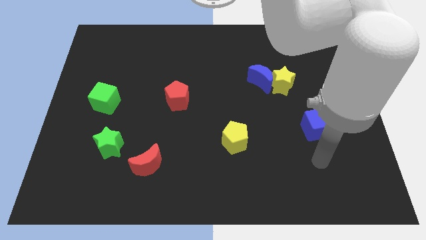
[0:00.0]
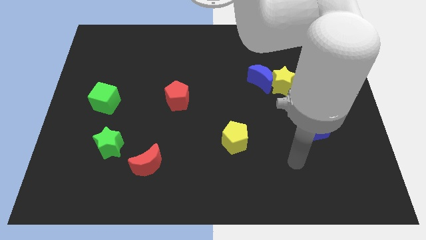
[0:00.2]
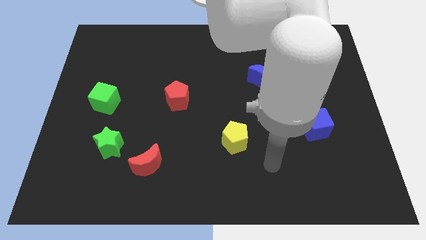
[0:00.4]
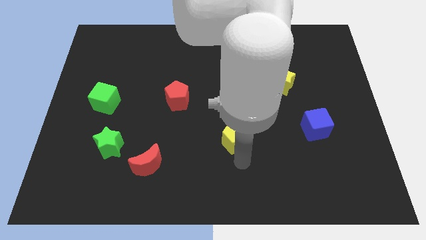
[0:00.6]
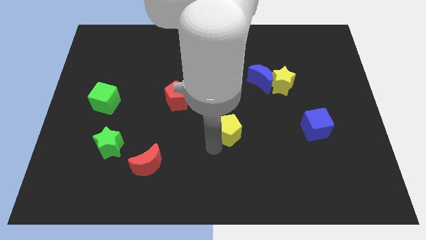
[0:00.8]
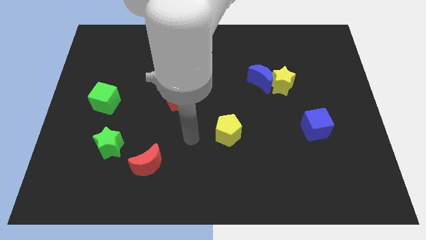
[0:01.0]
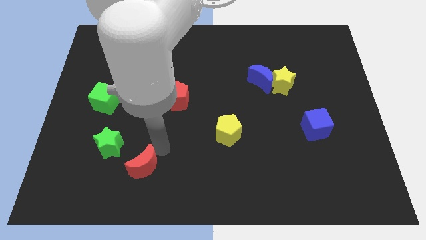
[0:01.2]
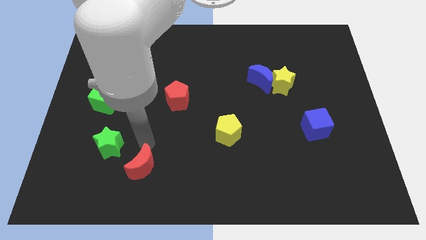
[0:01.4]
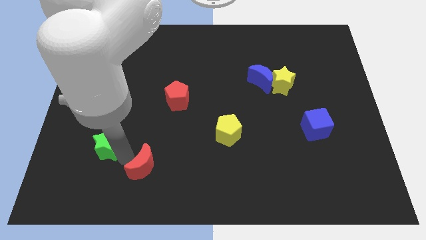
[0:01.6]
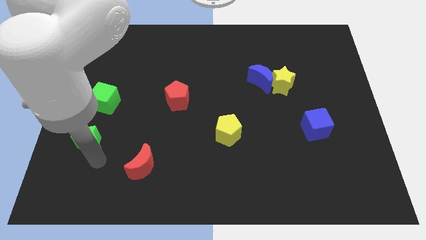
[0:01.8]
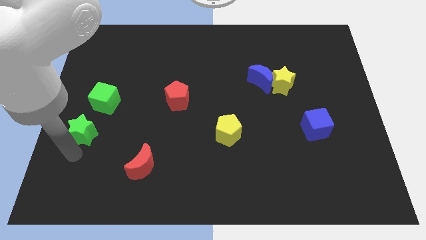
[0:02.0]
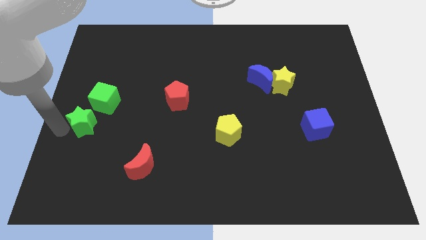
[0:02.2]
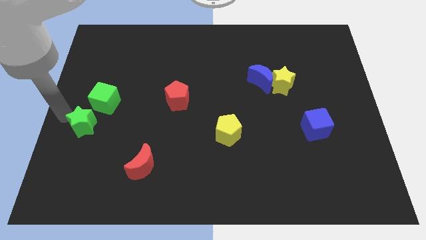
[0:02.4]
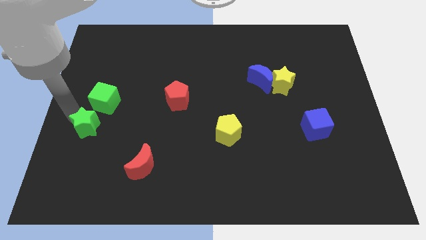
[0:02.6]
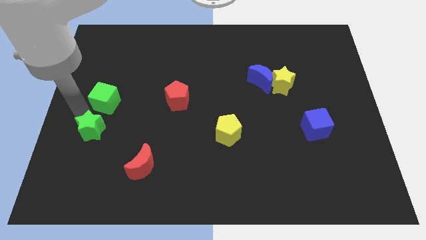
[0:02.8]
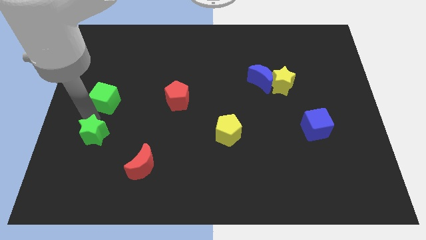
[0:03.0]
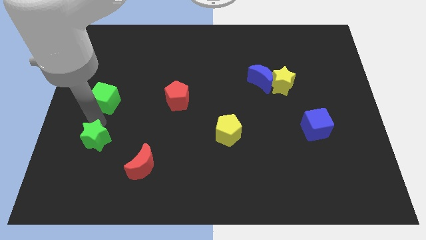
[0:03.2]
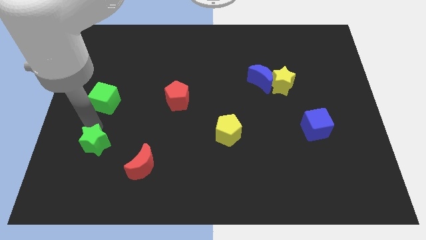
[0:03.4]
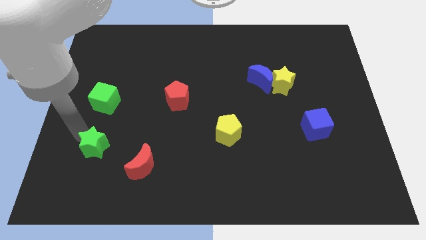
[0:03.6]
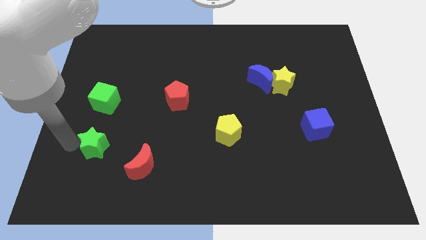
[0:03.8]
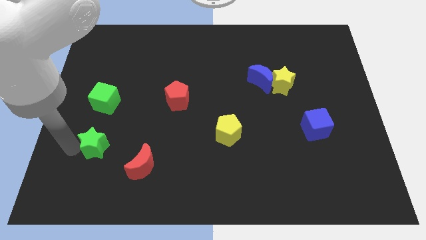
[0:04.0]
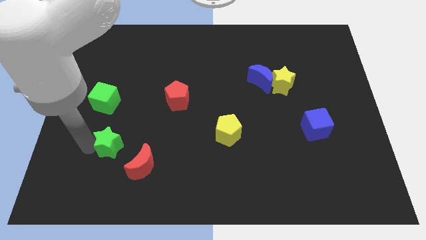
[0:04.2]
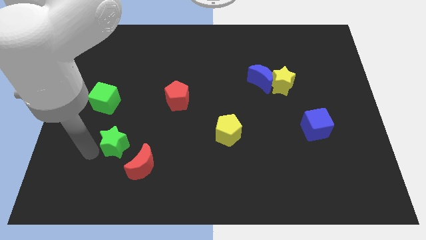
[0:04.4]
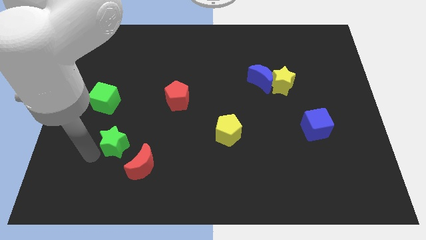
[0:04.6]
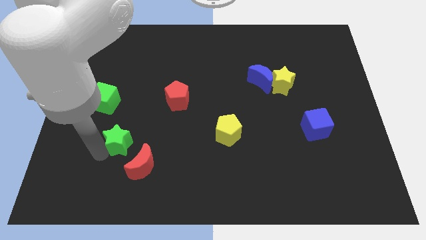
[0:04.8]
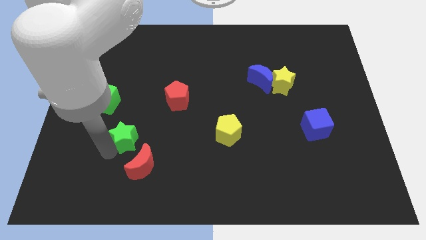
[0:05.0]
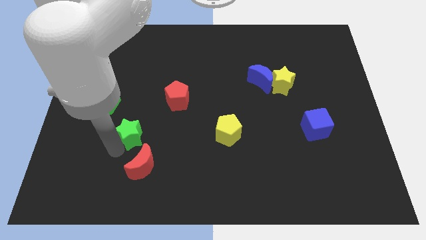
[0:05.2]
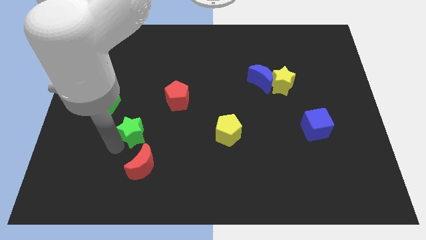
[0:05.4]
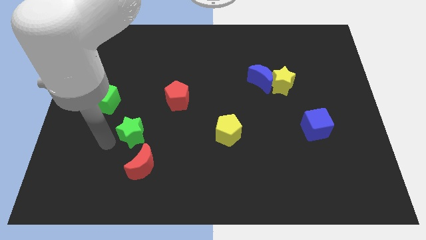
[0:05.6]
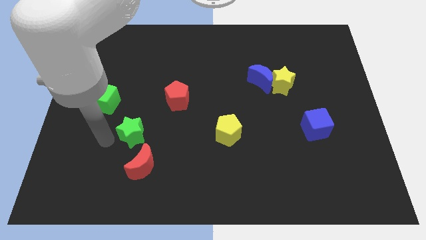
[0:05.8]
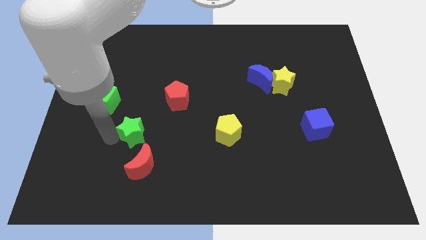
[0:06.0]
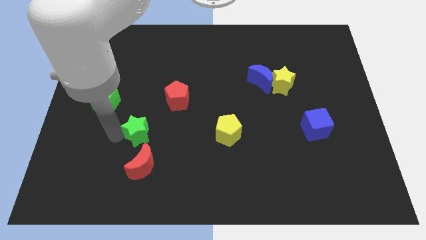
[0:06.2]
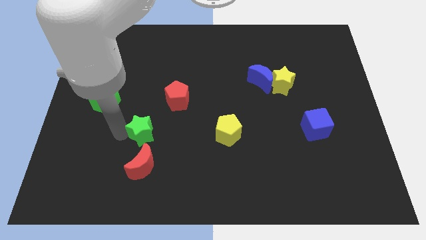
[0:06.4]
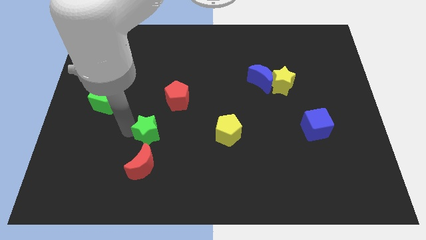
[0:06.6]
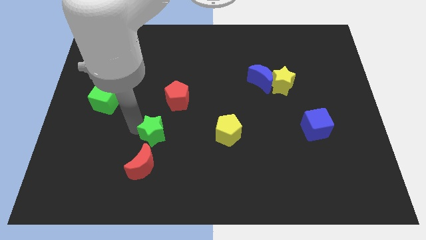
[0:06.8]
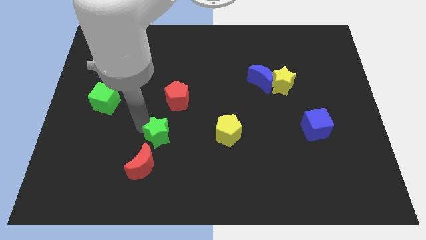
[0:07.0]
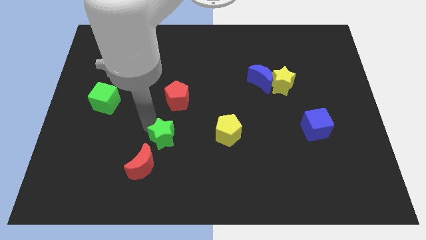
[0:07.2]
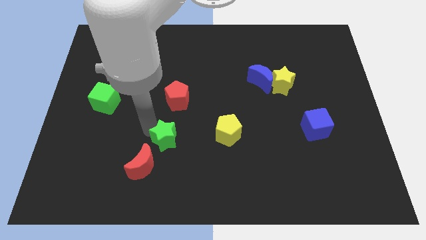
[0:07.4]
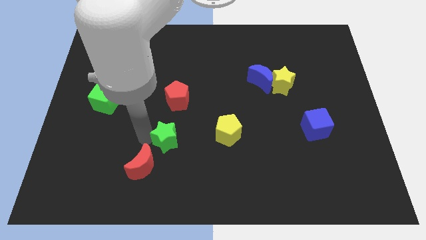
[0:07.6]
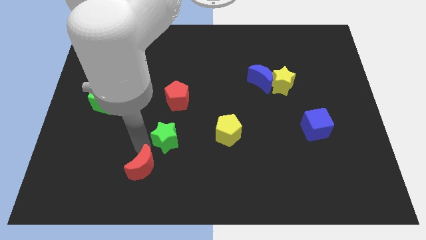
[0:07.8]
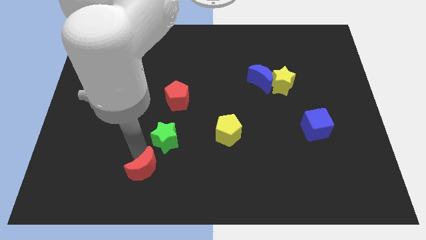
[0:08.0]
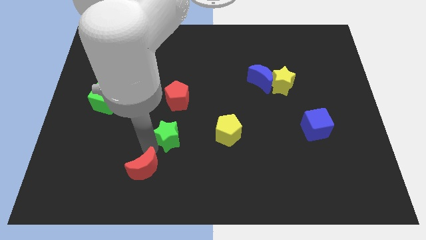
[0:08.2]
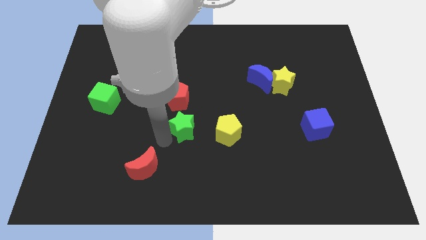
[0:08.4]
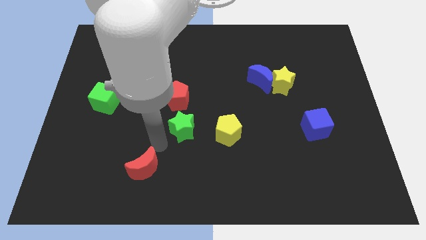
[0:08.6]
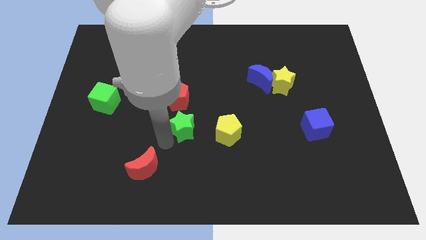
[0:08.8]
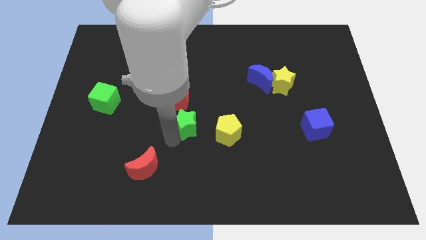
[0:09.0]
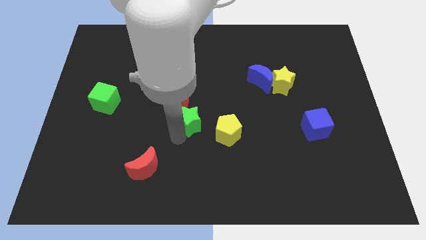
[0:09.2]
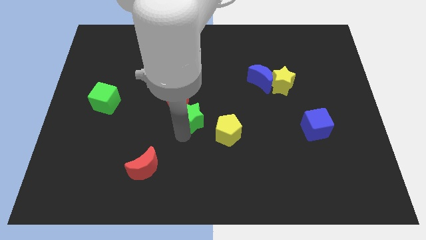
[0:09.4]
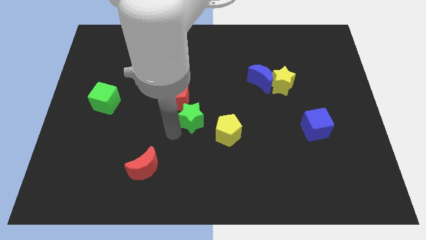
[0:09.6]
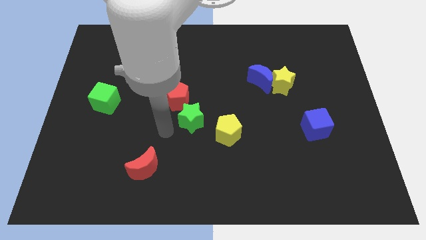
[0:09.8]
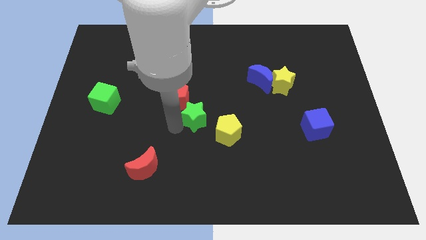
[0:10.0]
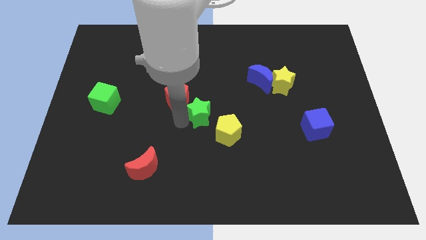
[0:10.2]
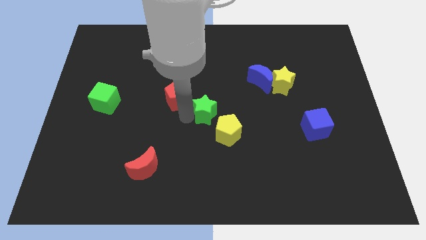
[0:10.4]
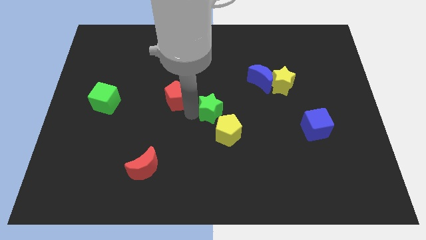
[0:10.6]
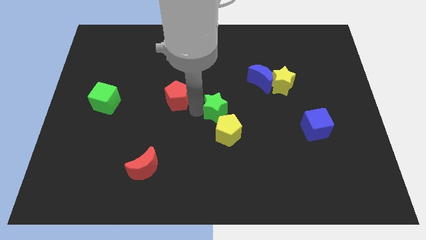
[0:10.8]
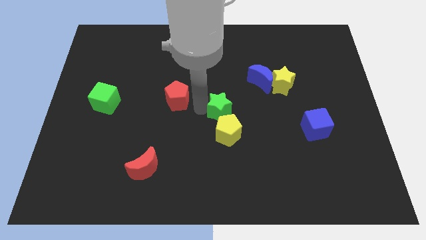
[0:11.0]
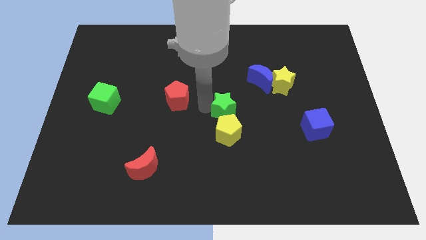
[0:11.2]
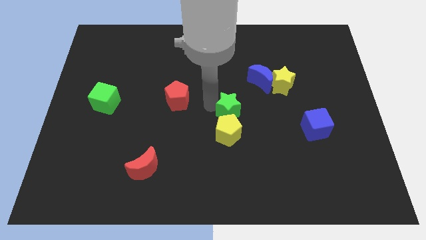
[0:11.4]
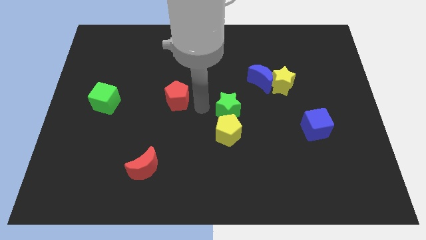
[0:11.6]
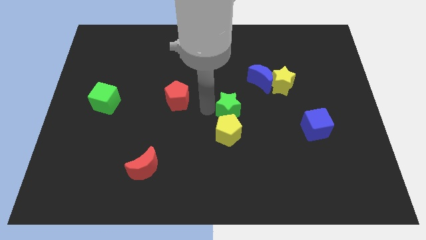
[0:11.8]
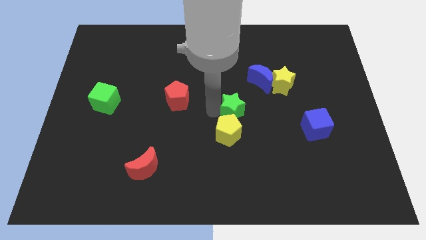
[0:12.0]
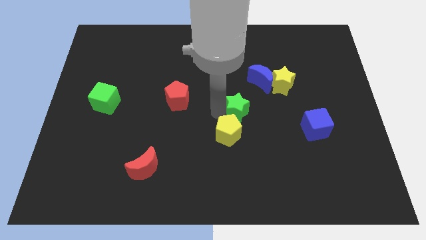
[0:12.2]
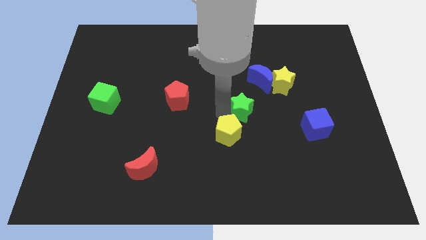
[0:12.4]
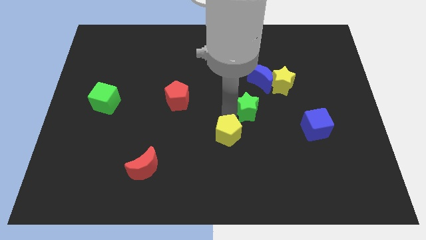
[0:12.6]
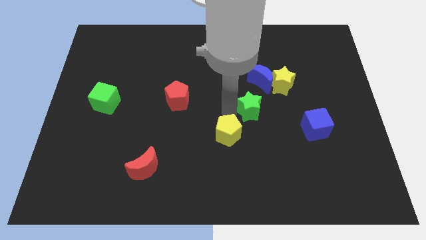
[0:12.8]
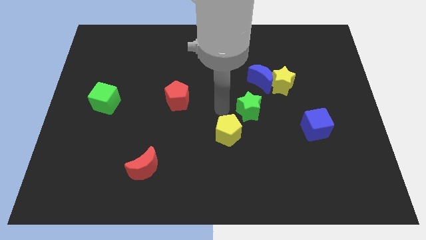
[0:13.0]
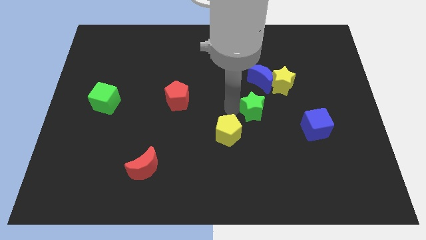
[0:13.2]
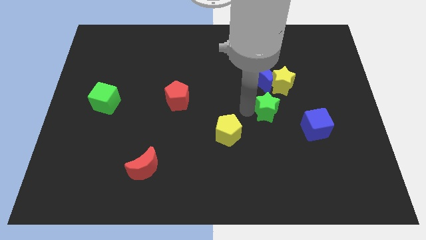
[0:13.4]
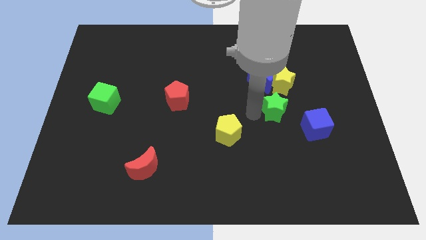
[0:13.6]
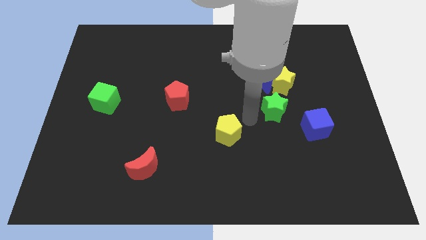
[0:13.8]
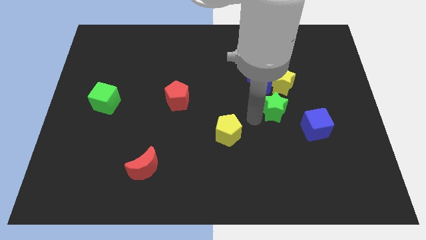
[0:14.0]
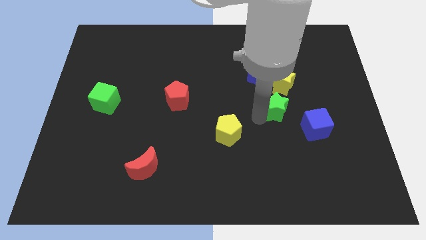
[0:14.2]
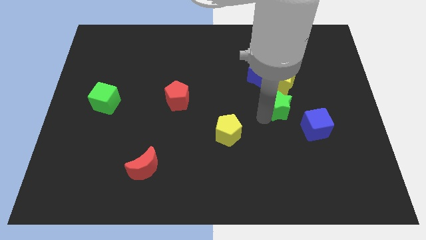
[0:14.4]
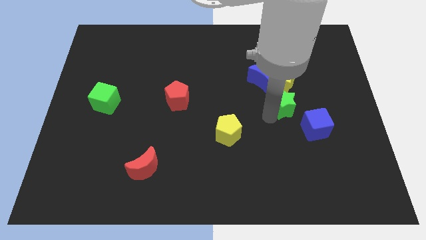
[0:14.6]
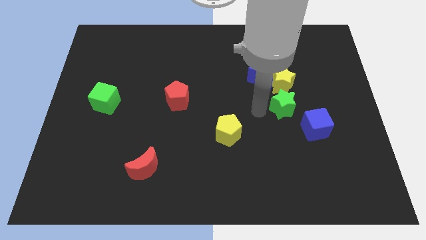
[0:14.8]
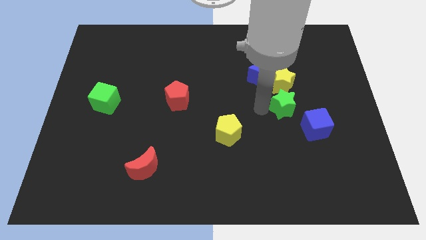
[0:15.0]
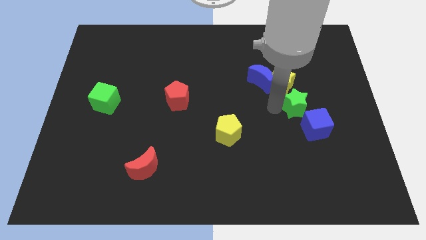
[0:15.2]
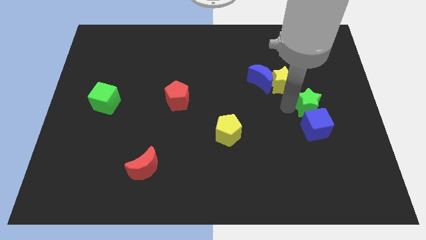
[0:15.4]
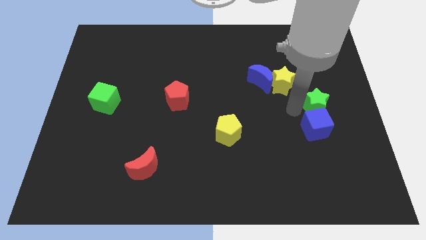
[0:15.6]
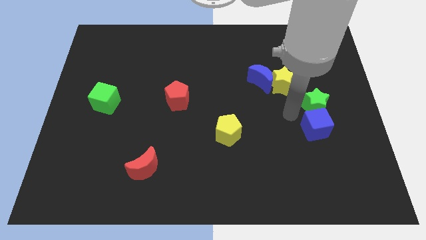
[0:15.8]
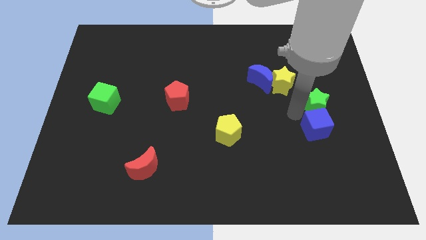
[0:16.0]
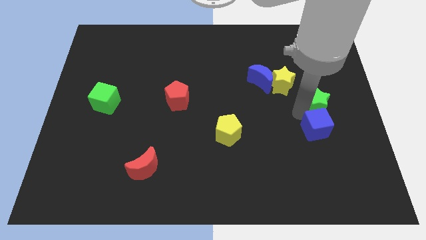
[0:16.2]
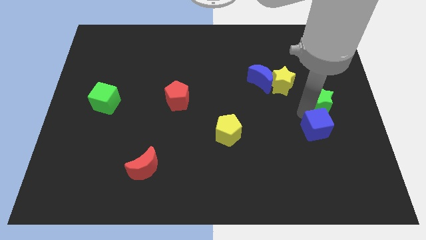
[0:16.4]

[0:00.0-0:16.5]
move the green star to the center right
